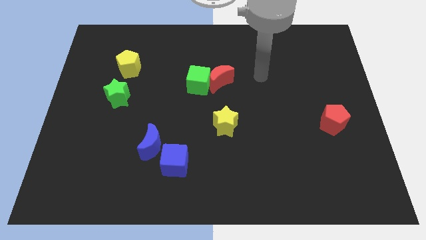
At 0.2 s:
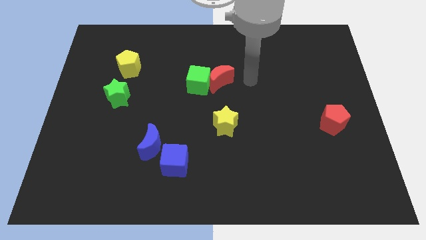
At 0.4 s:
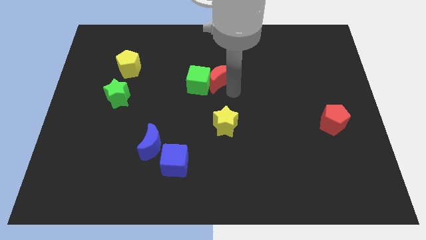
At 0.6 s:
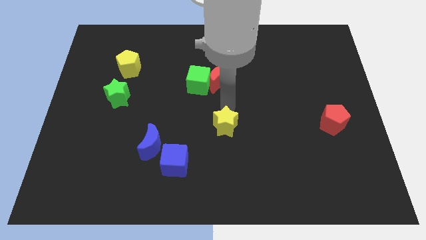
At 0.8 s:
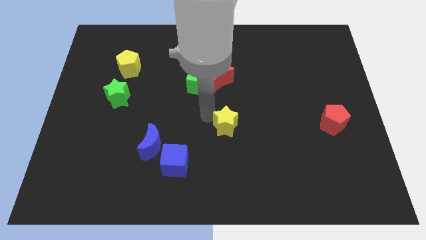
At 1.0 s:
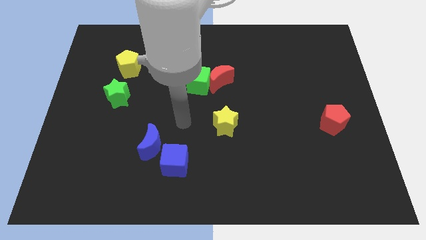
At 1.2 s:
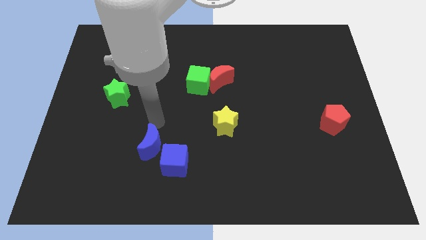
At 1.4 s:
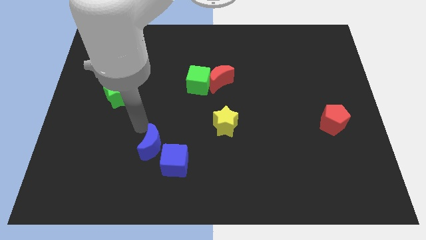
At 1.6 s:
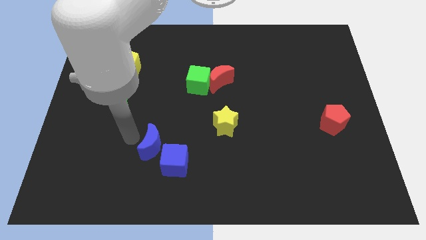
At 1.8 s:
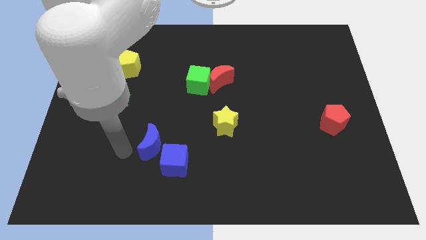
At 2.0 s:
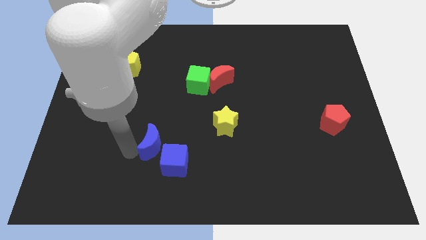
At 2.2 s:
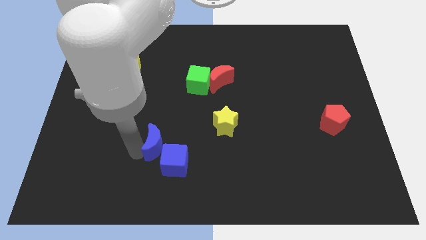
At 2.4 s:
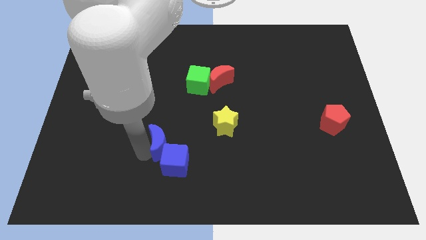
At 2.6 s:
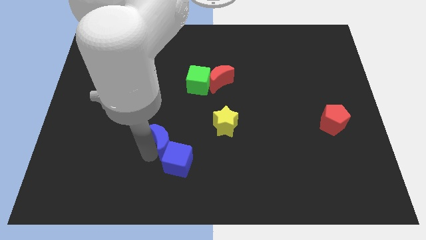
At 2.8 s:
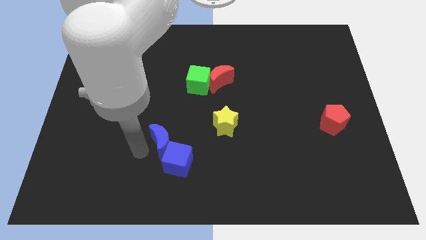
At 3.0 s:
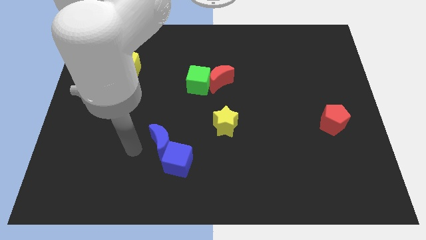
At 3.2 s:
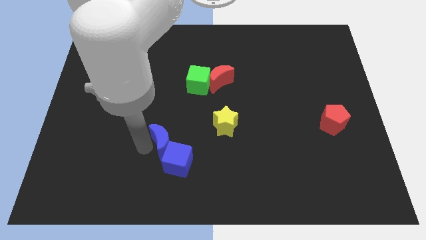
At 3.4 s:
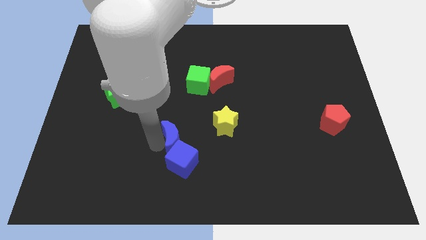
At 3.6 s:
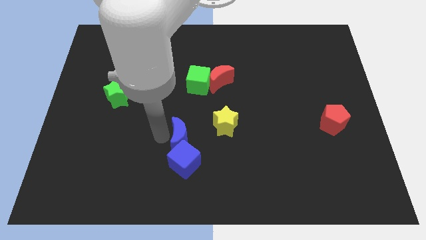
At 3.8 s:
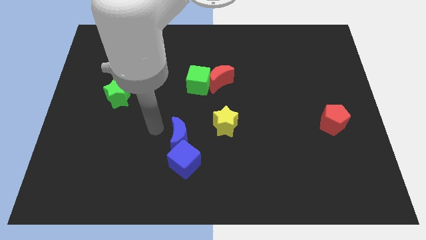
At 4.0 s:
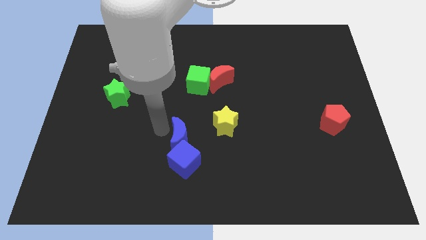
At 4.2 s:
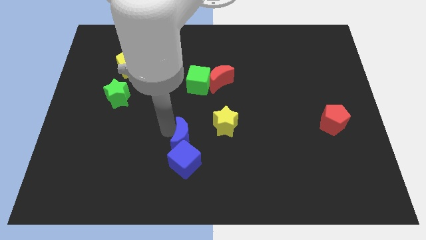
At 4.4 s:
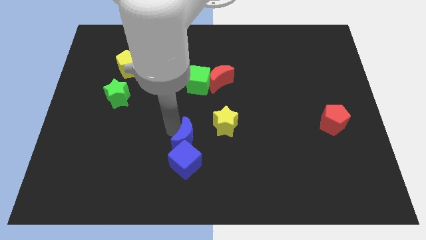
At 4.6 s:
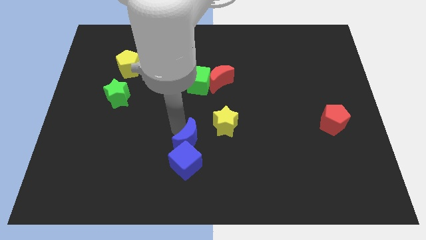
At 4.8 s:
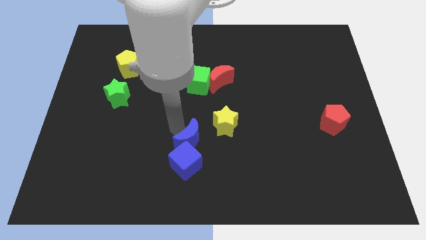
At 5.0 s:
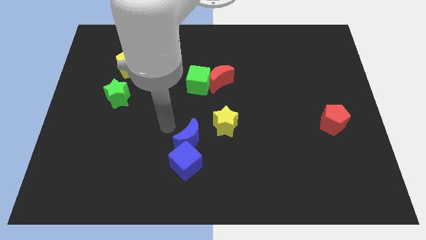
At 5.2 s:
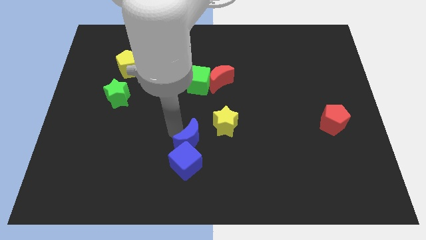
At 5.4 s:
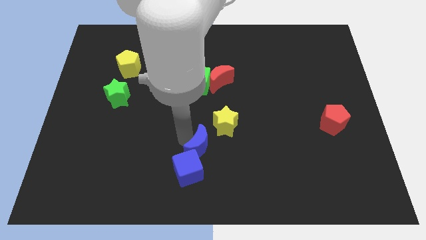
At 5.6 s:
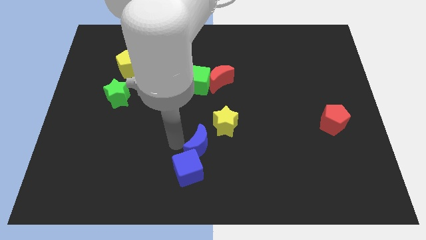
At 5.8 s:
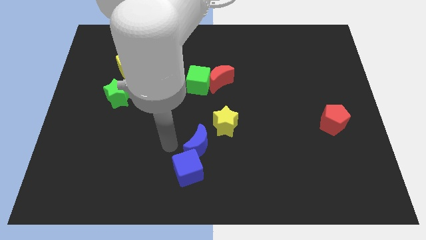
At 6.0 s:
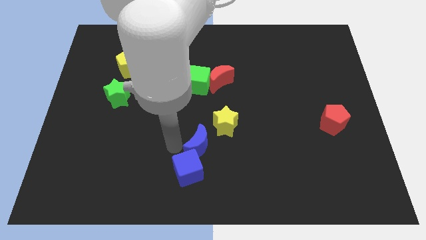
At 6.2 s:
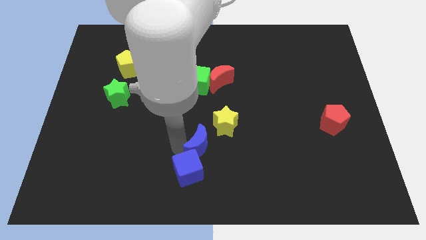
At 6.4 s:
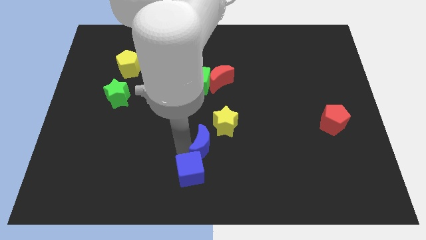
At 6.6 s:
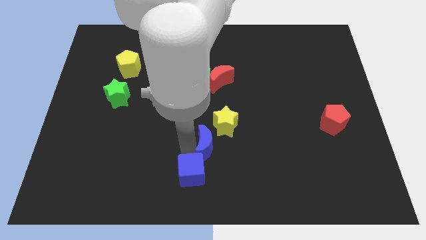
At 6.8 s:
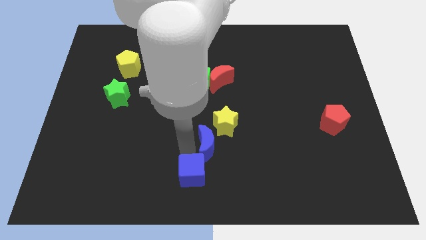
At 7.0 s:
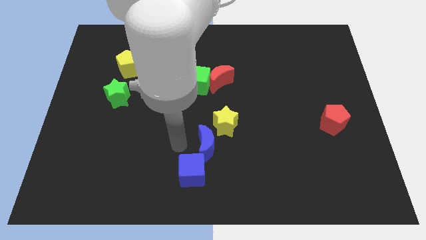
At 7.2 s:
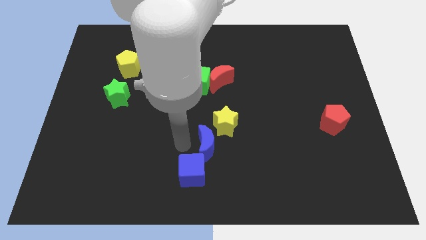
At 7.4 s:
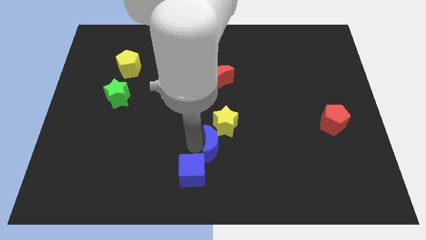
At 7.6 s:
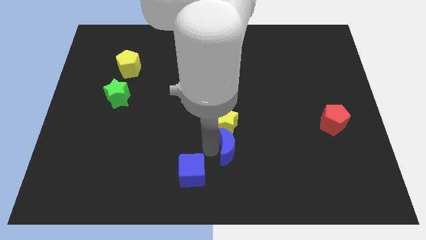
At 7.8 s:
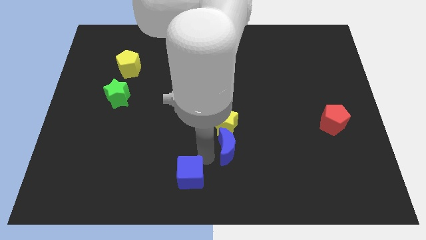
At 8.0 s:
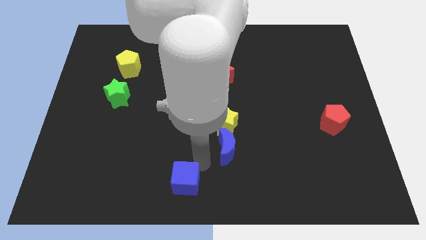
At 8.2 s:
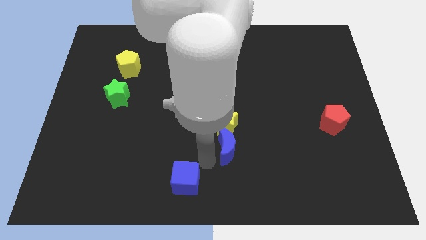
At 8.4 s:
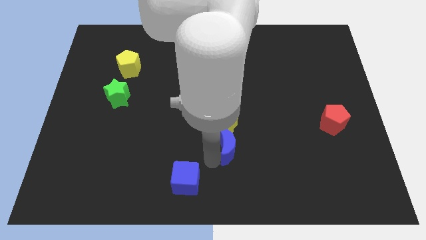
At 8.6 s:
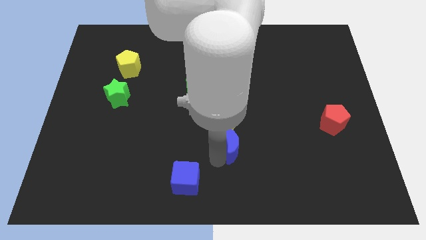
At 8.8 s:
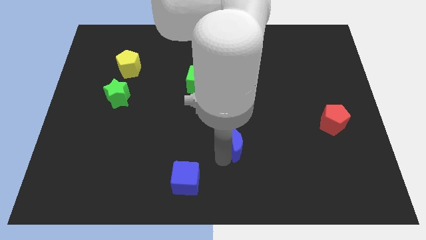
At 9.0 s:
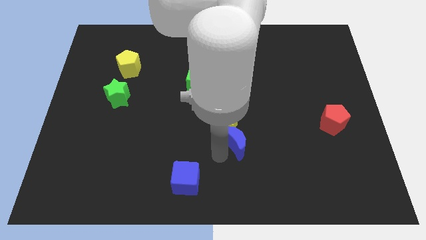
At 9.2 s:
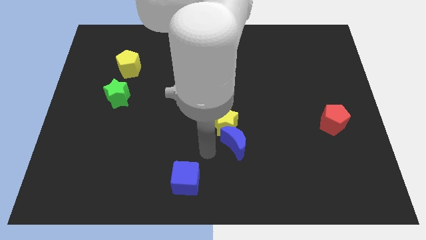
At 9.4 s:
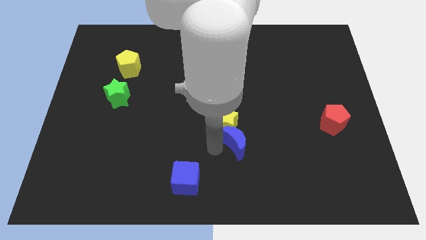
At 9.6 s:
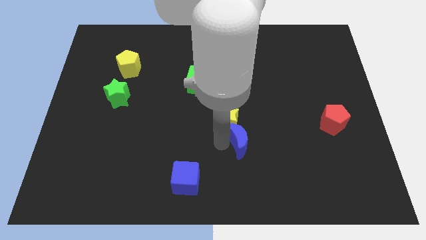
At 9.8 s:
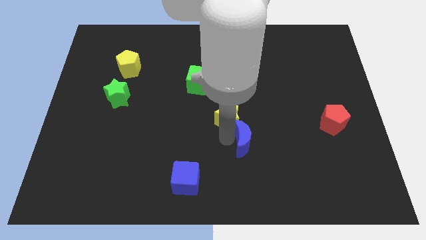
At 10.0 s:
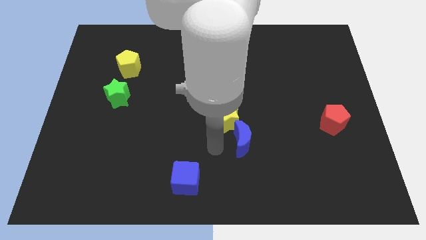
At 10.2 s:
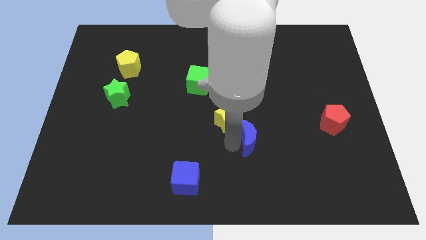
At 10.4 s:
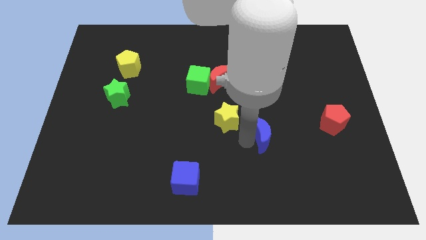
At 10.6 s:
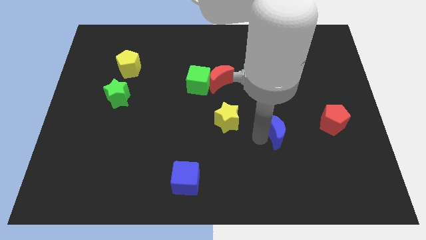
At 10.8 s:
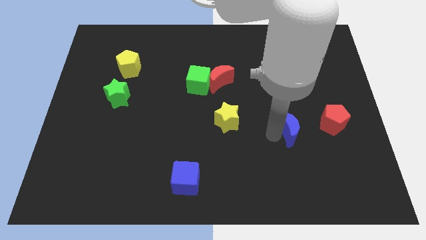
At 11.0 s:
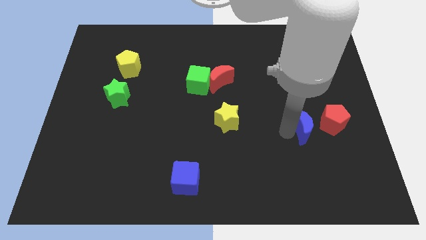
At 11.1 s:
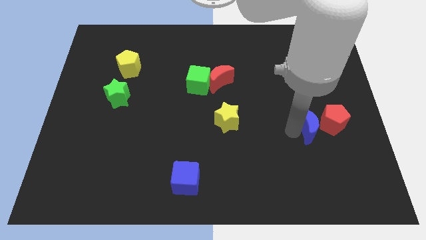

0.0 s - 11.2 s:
put the blue moon towards the red pentagon

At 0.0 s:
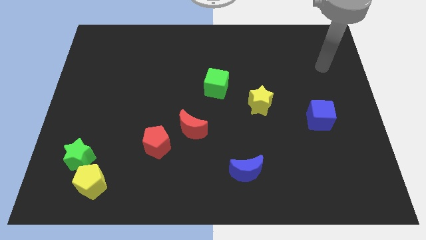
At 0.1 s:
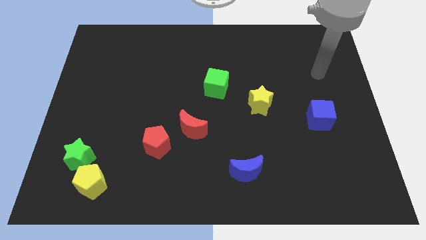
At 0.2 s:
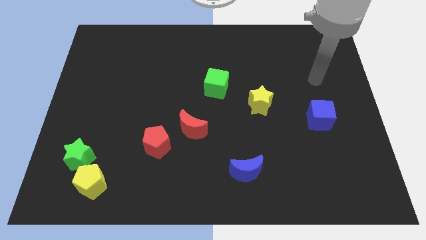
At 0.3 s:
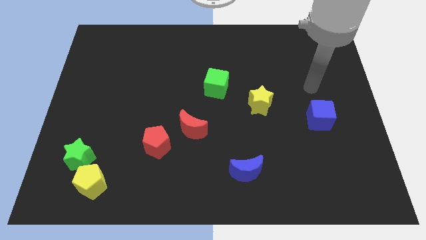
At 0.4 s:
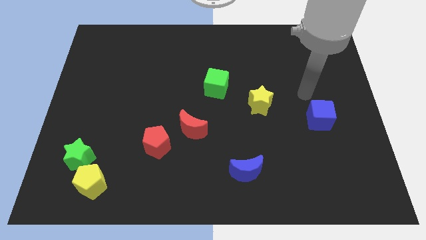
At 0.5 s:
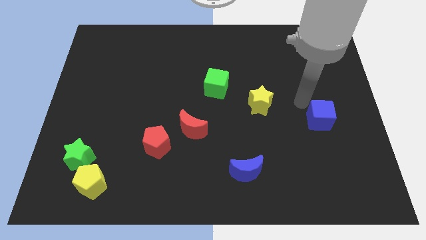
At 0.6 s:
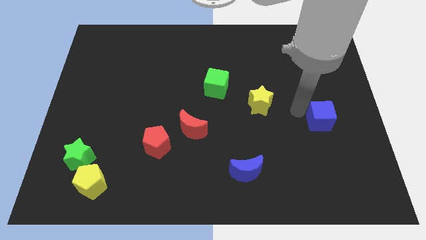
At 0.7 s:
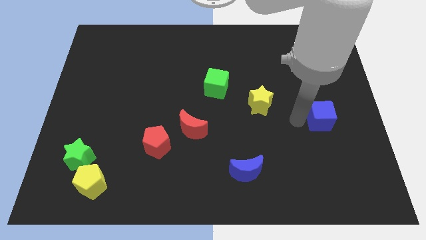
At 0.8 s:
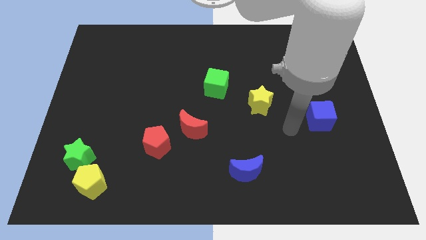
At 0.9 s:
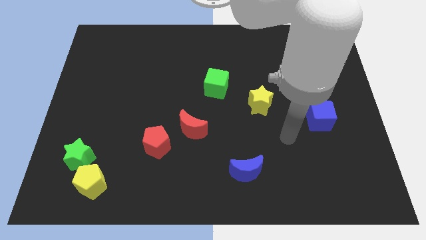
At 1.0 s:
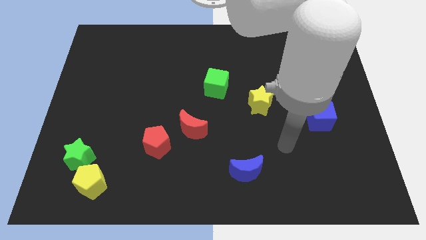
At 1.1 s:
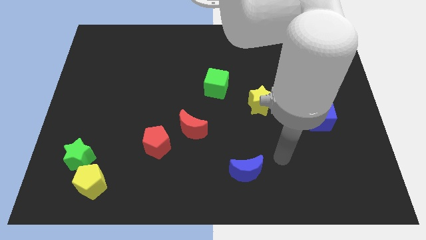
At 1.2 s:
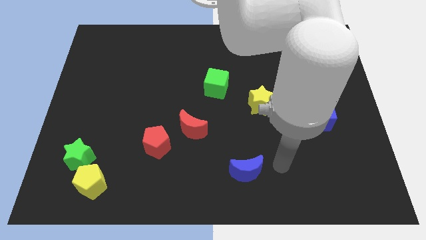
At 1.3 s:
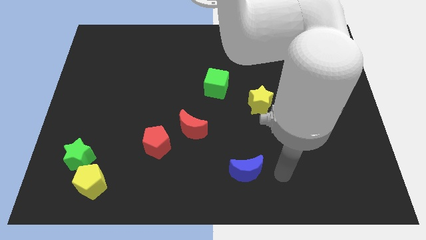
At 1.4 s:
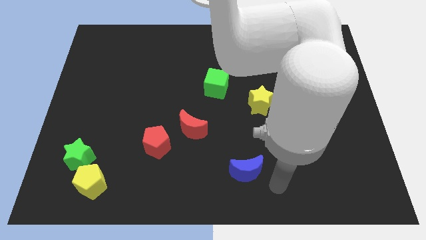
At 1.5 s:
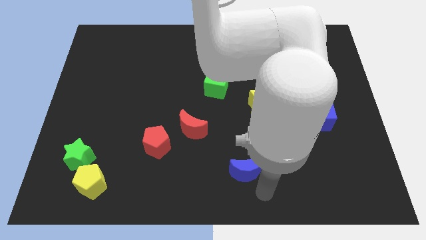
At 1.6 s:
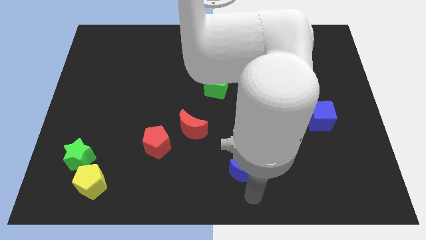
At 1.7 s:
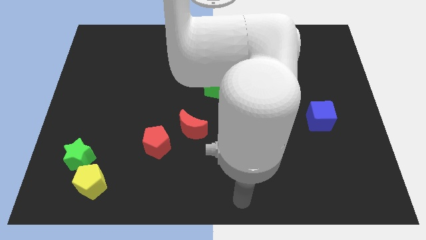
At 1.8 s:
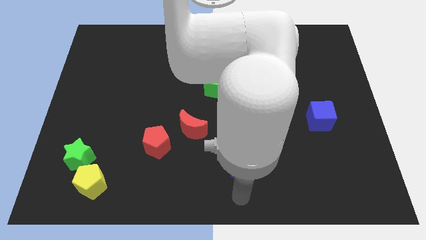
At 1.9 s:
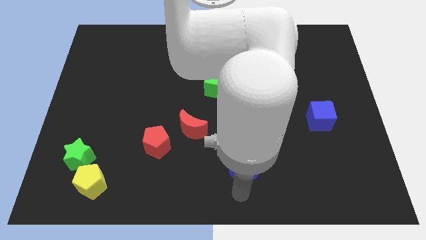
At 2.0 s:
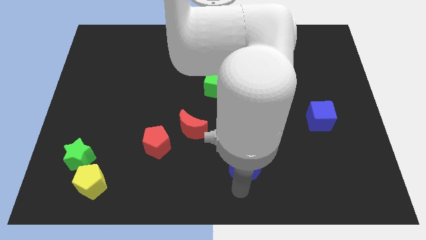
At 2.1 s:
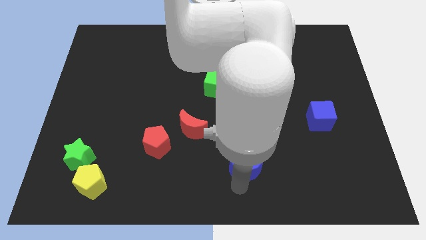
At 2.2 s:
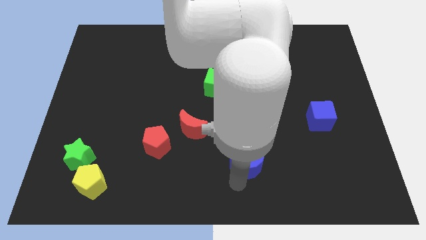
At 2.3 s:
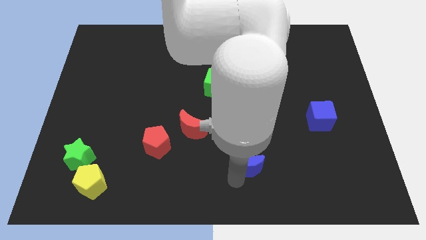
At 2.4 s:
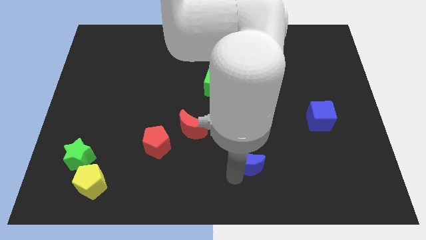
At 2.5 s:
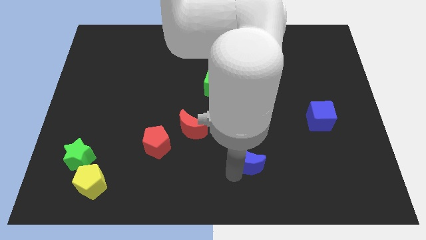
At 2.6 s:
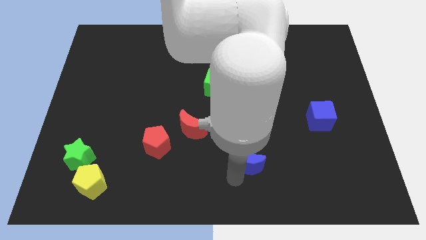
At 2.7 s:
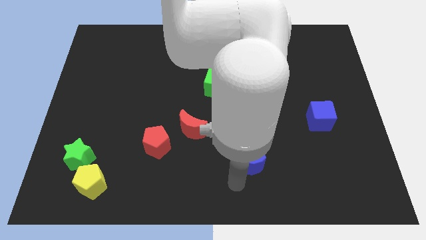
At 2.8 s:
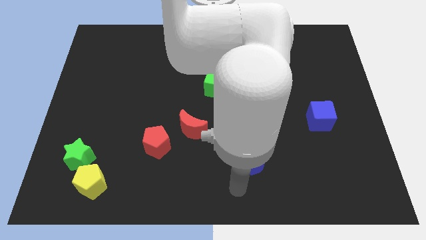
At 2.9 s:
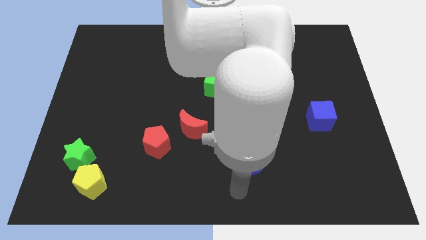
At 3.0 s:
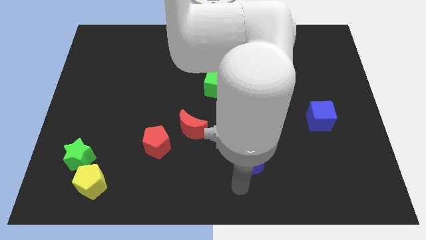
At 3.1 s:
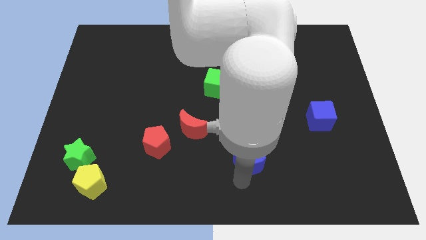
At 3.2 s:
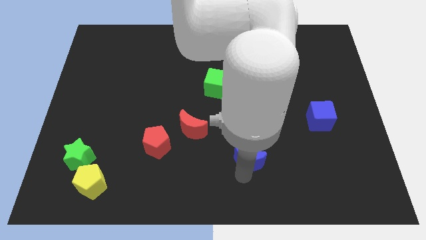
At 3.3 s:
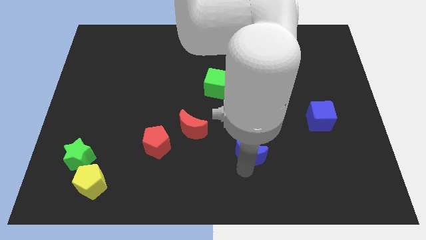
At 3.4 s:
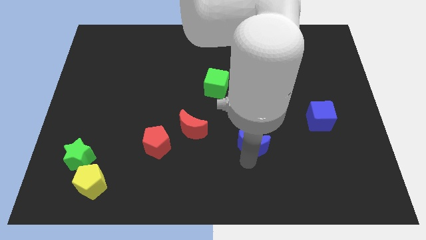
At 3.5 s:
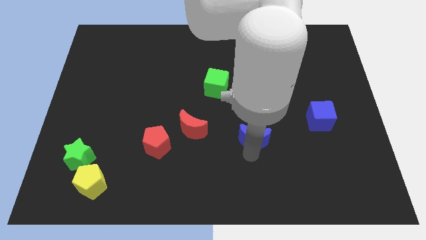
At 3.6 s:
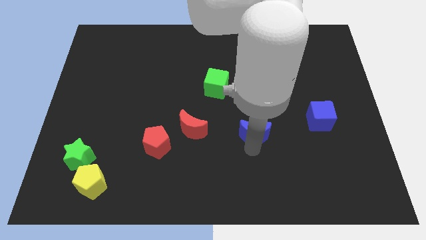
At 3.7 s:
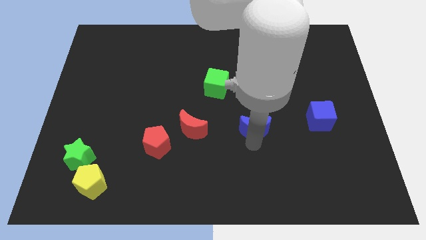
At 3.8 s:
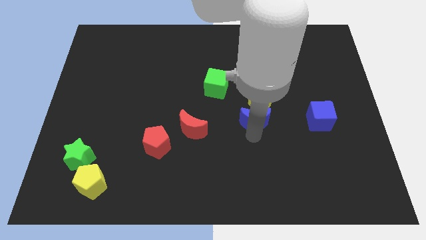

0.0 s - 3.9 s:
slide the blue moon close to the yellow star
